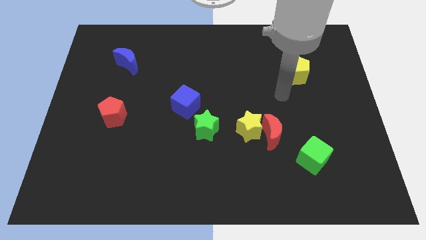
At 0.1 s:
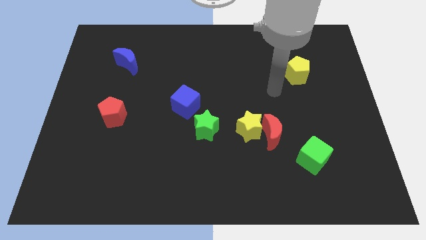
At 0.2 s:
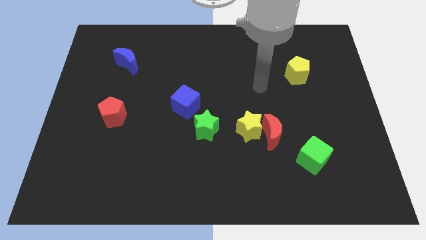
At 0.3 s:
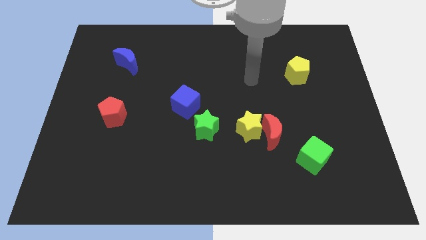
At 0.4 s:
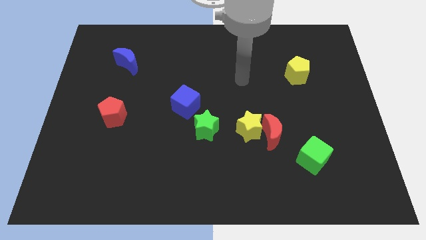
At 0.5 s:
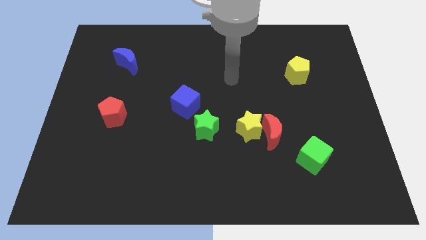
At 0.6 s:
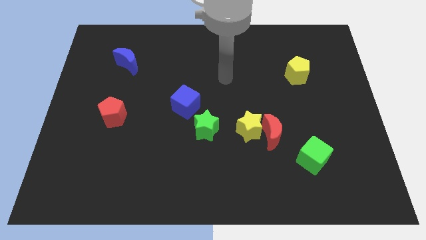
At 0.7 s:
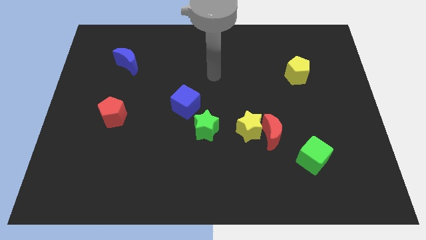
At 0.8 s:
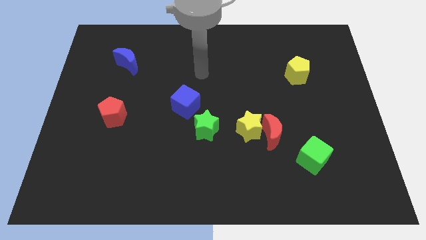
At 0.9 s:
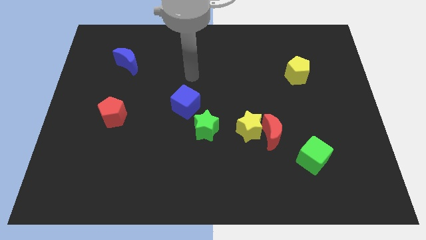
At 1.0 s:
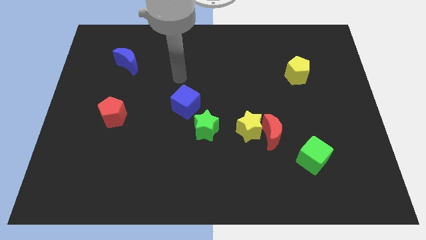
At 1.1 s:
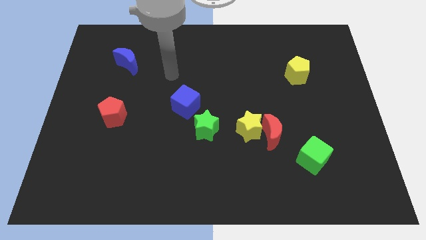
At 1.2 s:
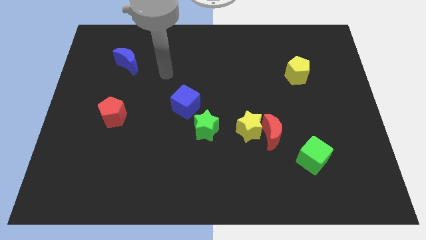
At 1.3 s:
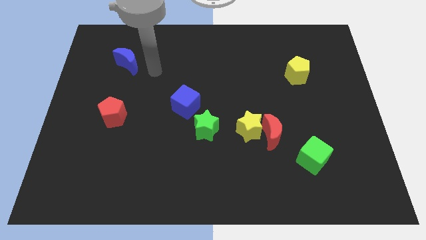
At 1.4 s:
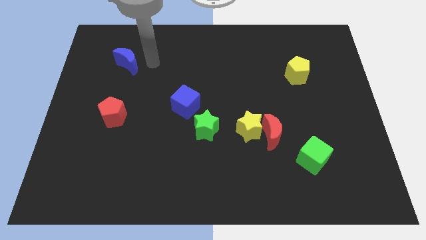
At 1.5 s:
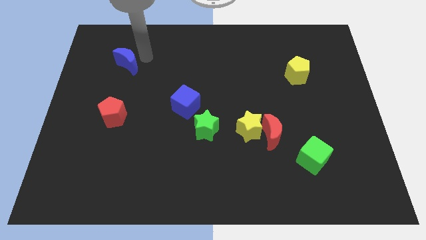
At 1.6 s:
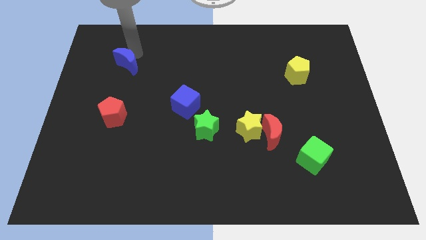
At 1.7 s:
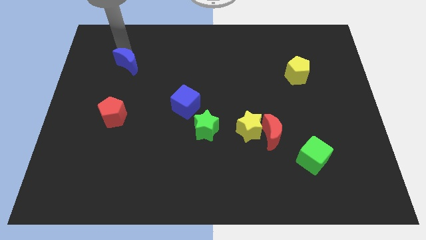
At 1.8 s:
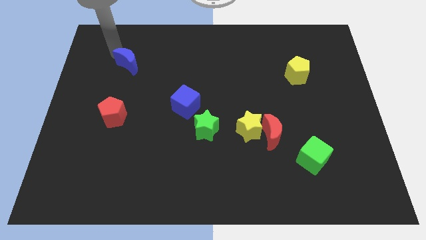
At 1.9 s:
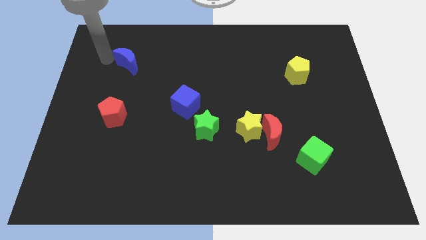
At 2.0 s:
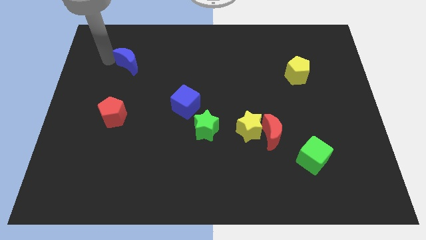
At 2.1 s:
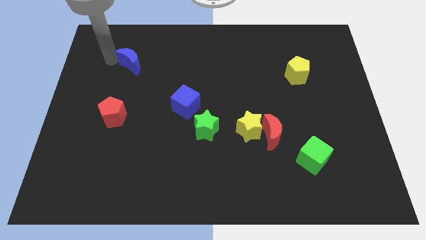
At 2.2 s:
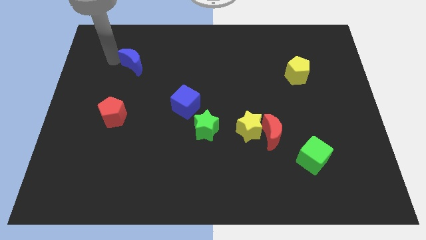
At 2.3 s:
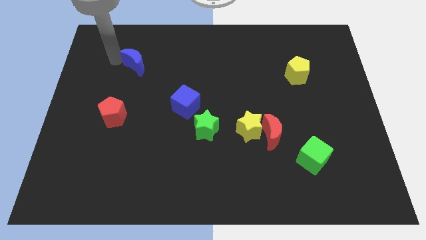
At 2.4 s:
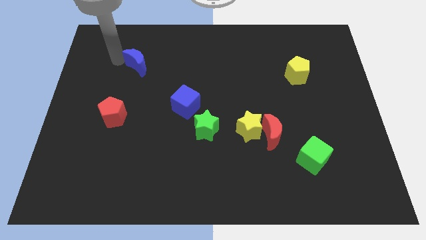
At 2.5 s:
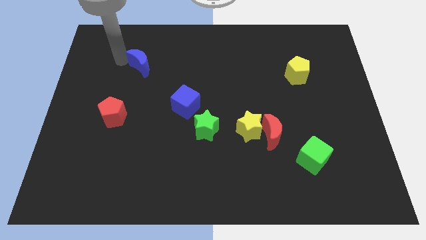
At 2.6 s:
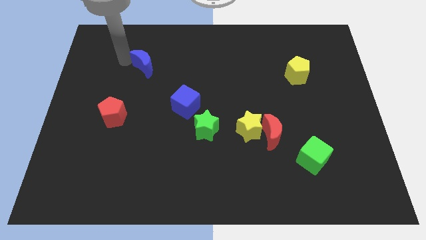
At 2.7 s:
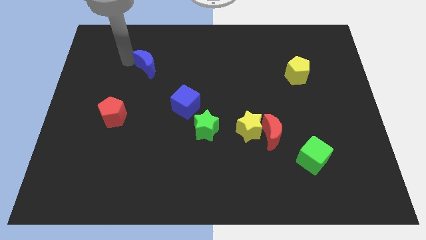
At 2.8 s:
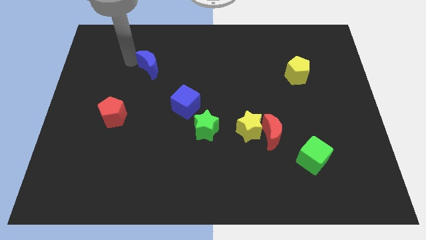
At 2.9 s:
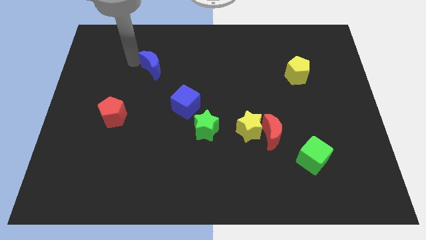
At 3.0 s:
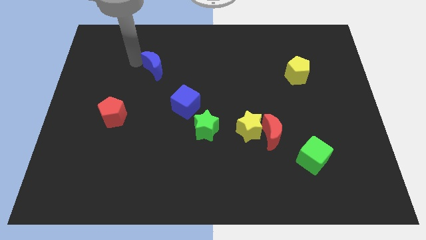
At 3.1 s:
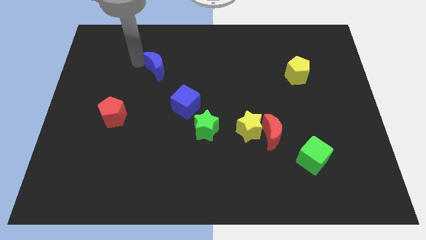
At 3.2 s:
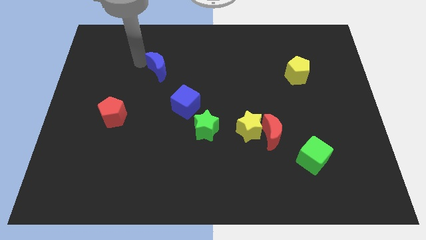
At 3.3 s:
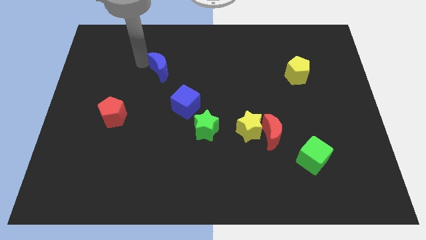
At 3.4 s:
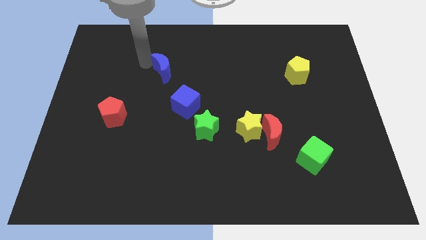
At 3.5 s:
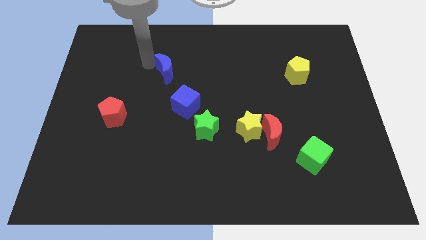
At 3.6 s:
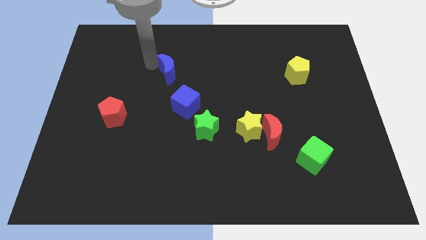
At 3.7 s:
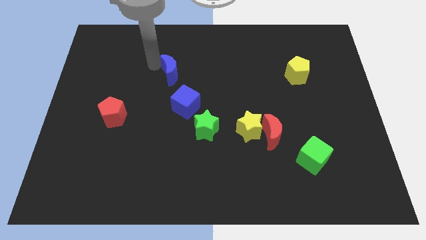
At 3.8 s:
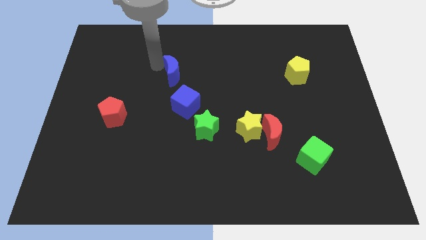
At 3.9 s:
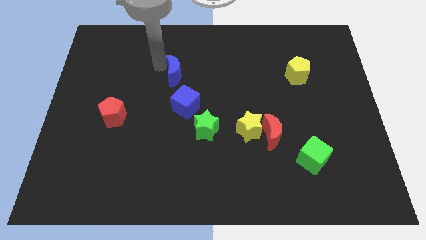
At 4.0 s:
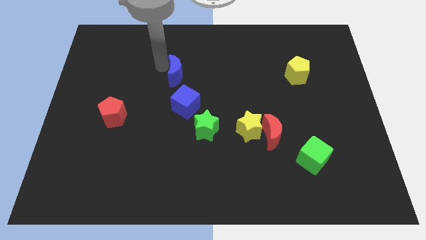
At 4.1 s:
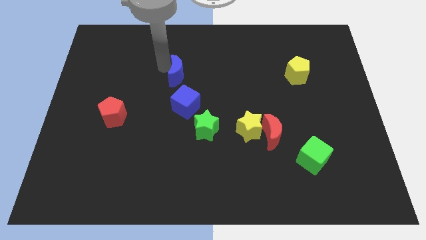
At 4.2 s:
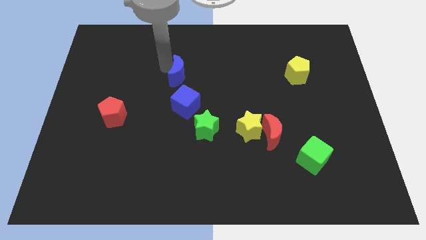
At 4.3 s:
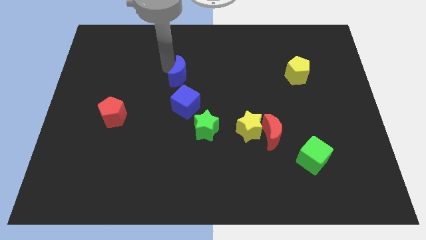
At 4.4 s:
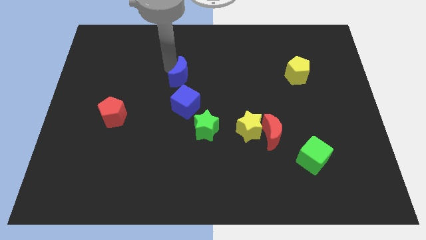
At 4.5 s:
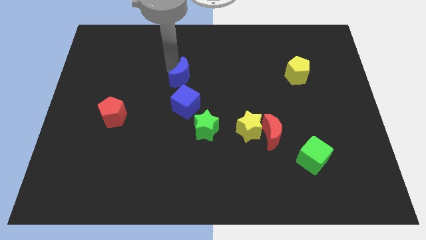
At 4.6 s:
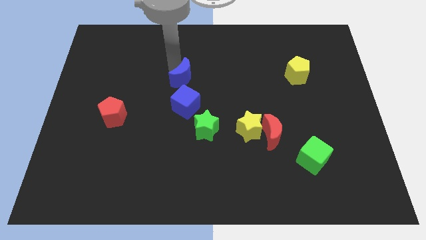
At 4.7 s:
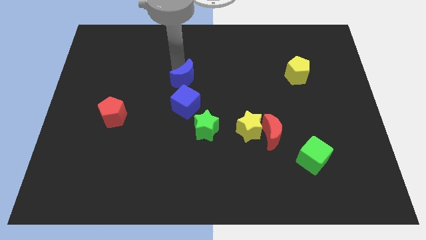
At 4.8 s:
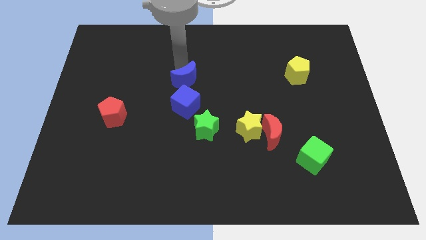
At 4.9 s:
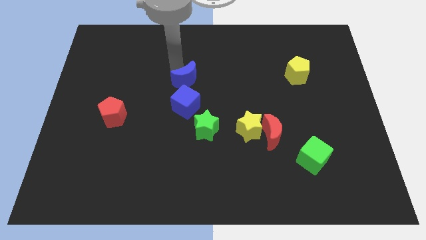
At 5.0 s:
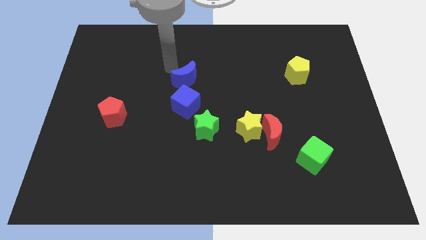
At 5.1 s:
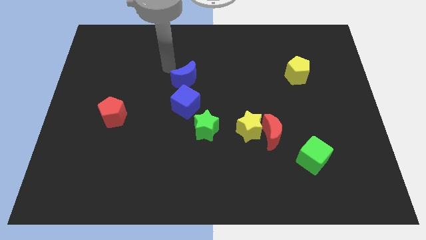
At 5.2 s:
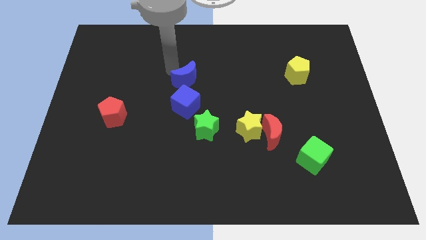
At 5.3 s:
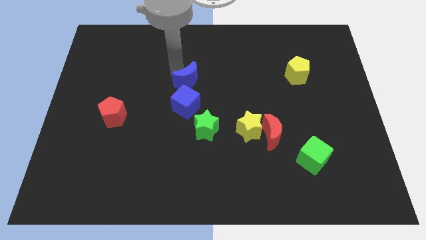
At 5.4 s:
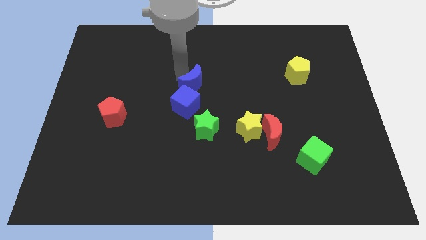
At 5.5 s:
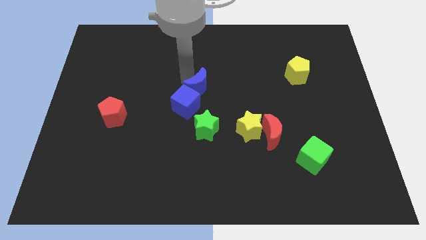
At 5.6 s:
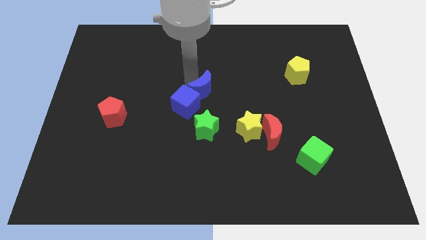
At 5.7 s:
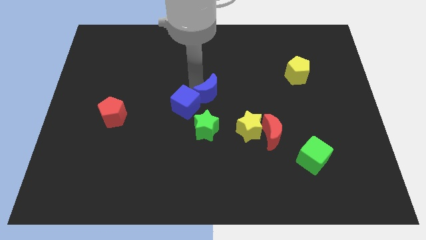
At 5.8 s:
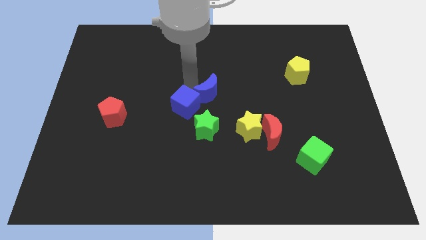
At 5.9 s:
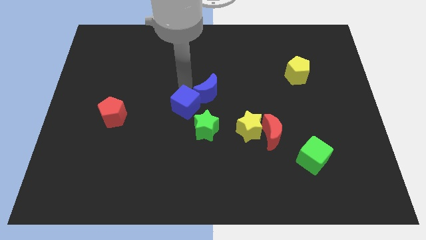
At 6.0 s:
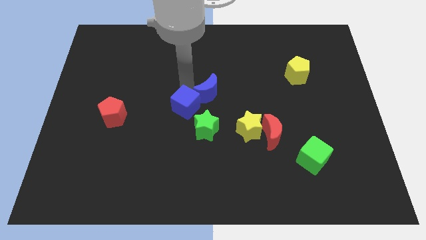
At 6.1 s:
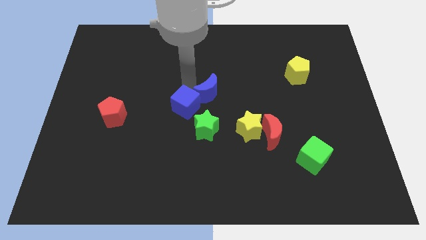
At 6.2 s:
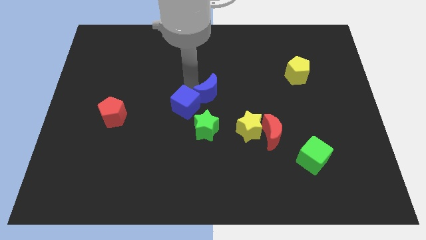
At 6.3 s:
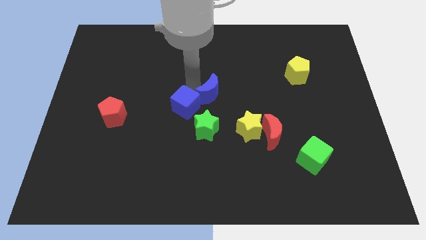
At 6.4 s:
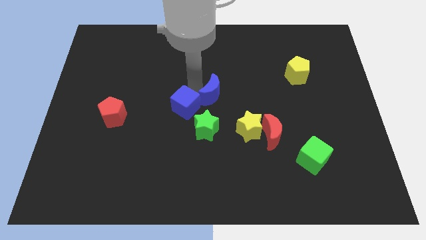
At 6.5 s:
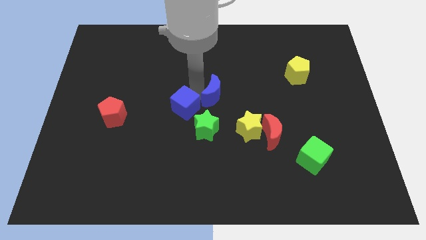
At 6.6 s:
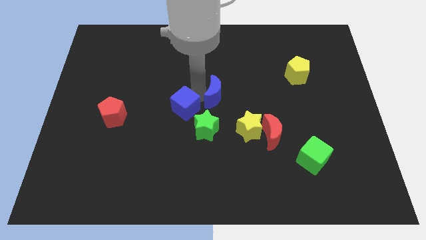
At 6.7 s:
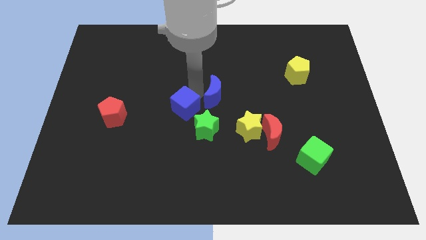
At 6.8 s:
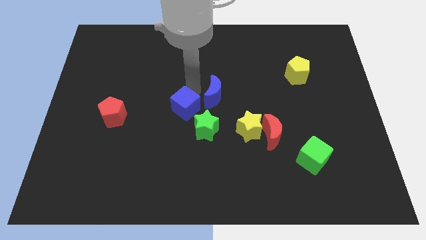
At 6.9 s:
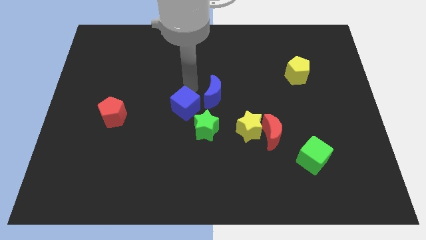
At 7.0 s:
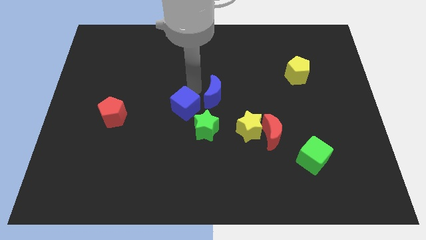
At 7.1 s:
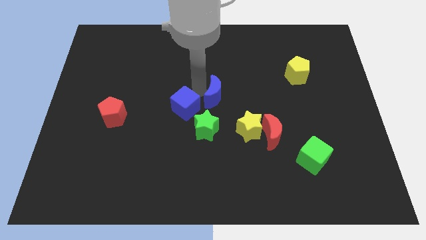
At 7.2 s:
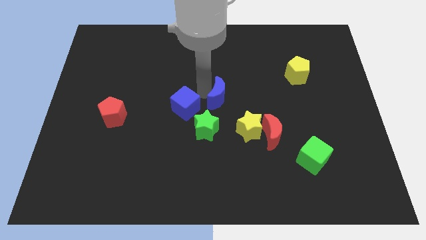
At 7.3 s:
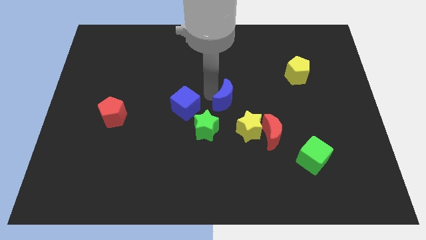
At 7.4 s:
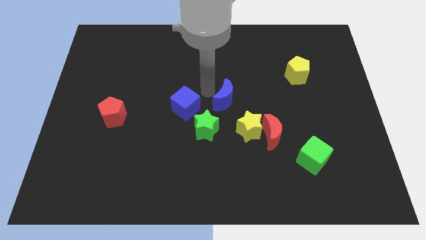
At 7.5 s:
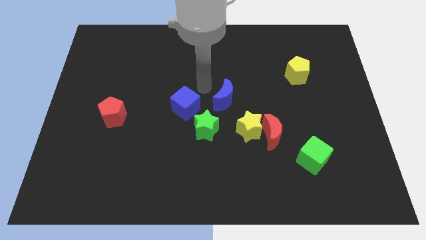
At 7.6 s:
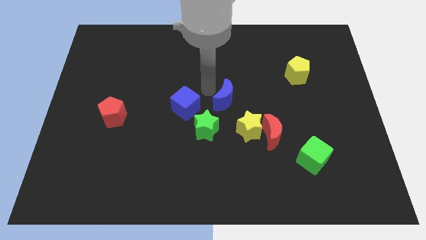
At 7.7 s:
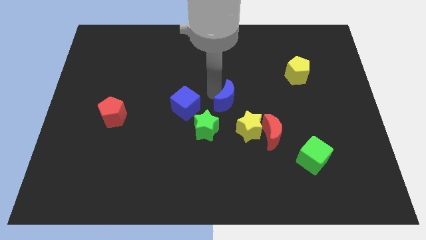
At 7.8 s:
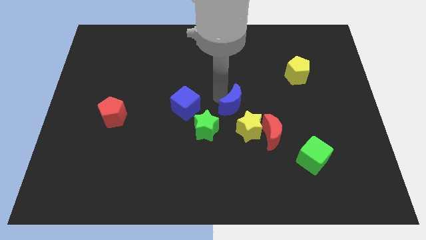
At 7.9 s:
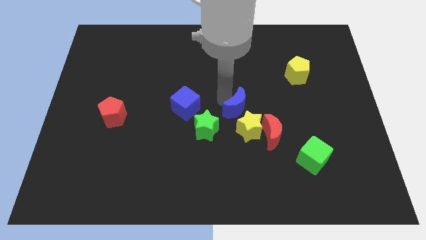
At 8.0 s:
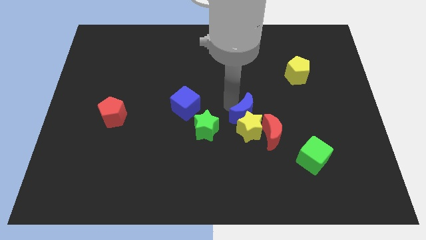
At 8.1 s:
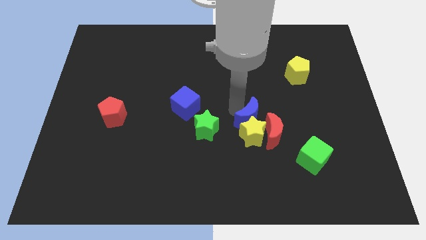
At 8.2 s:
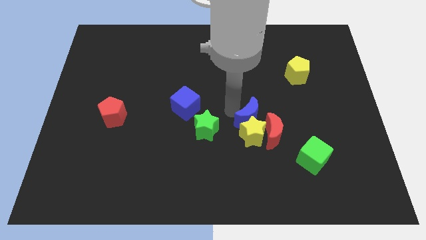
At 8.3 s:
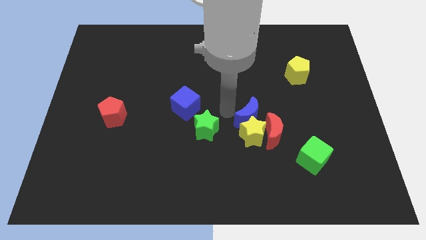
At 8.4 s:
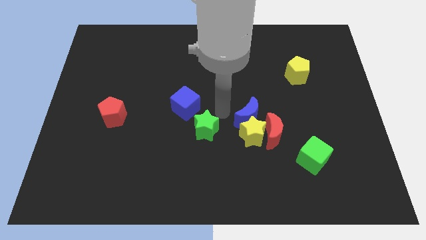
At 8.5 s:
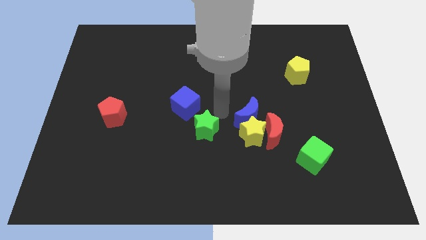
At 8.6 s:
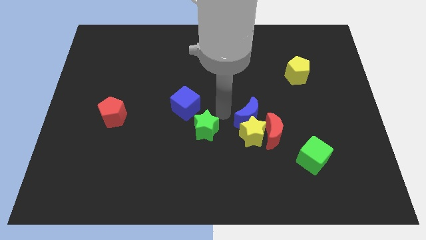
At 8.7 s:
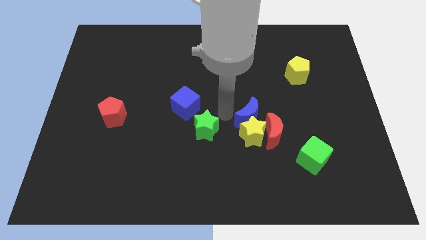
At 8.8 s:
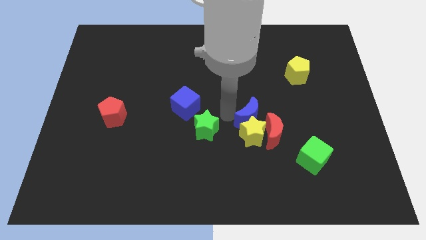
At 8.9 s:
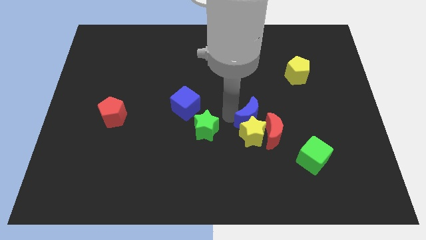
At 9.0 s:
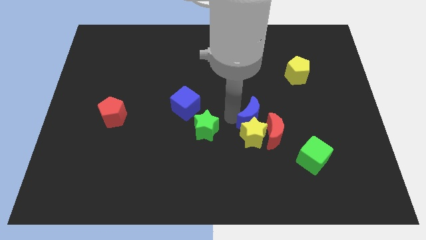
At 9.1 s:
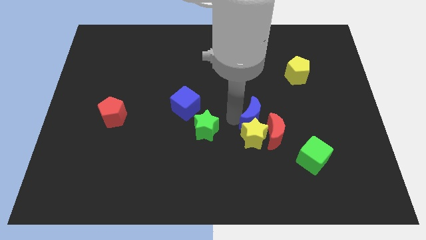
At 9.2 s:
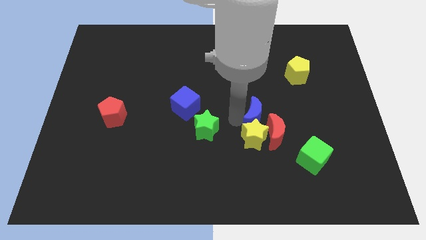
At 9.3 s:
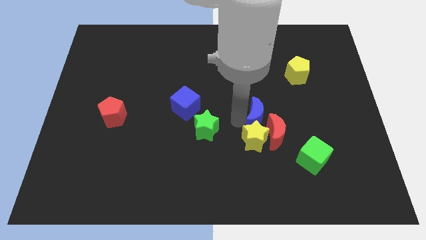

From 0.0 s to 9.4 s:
push the blue moon to the red moon
